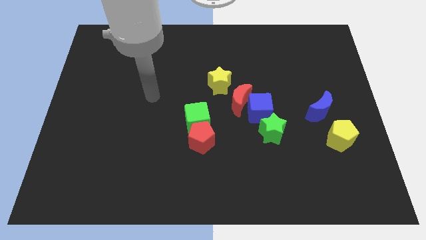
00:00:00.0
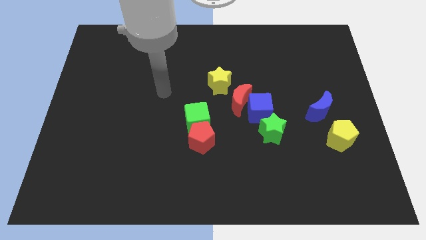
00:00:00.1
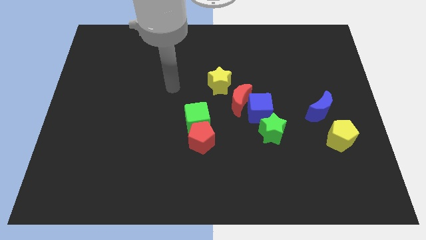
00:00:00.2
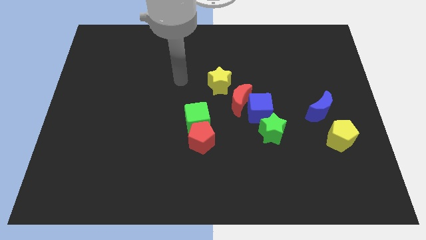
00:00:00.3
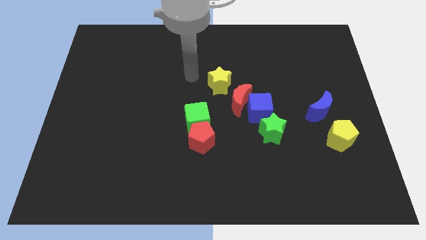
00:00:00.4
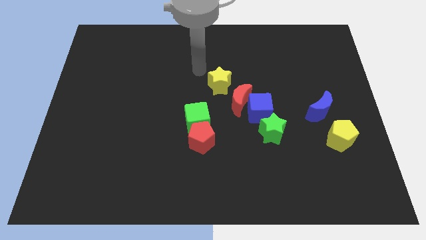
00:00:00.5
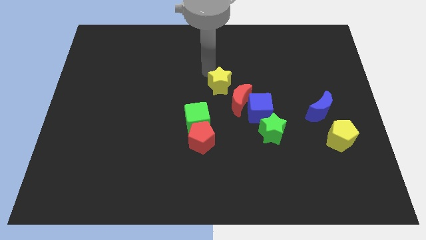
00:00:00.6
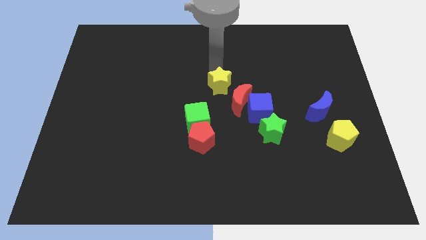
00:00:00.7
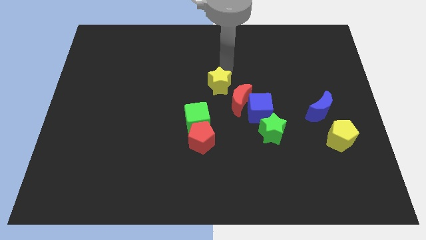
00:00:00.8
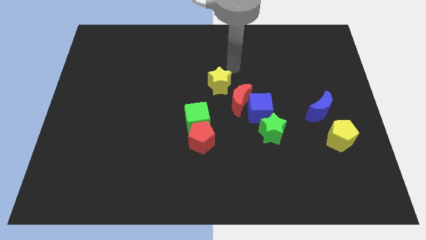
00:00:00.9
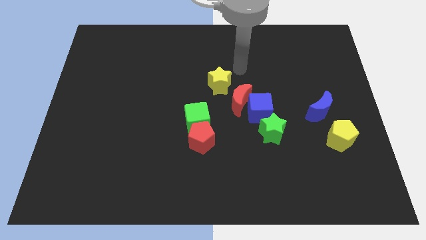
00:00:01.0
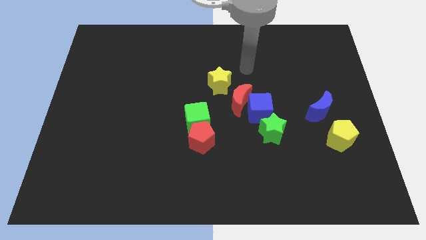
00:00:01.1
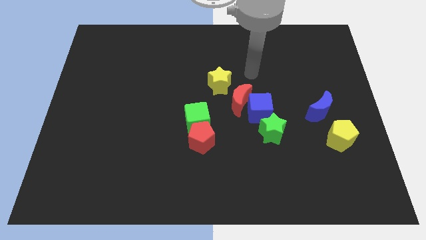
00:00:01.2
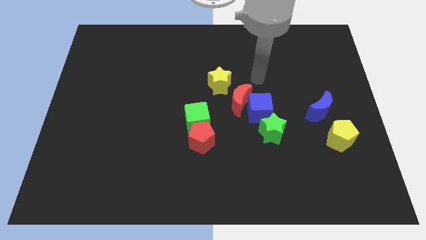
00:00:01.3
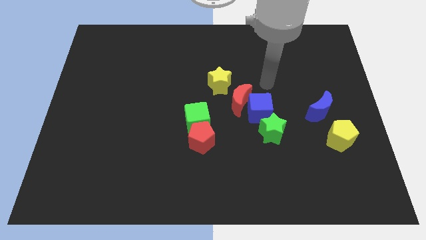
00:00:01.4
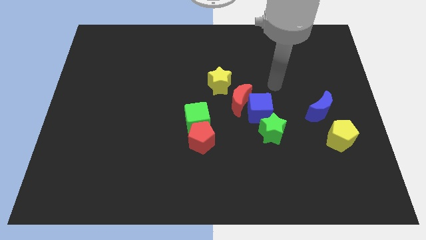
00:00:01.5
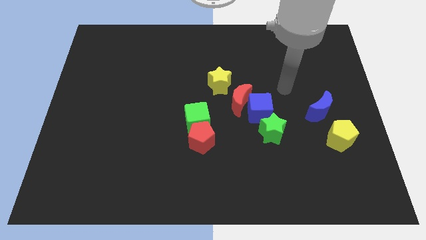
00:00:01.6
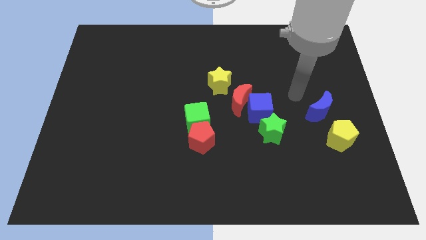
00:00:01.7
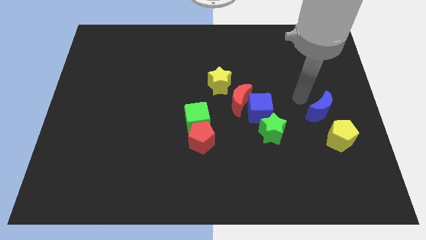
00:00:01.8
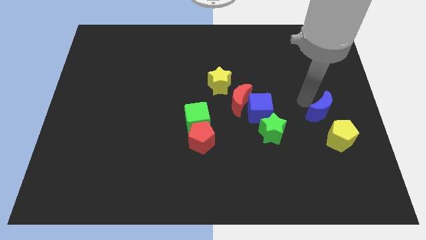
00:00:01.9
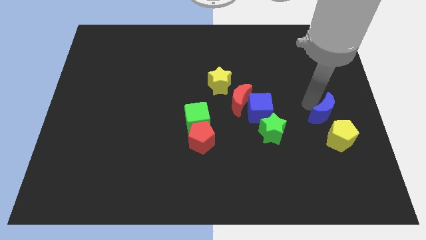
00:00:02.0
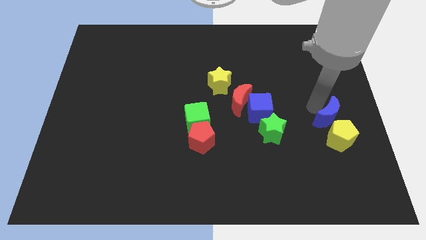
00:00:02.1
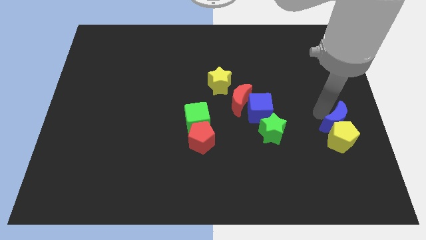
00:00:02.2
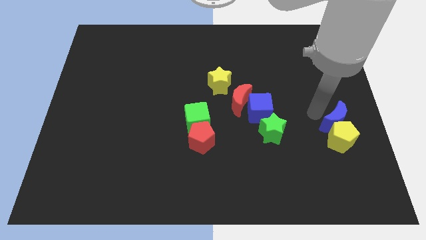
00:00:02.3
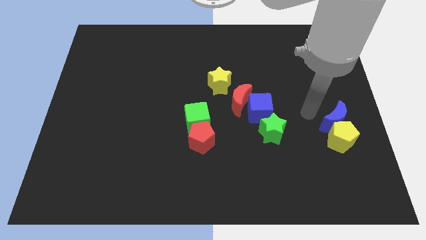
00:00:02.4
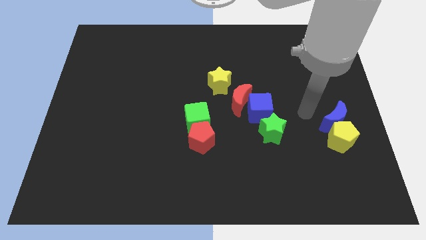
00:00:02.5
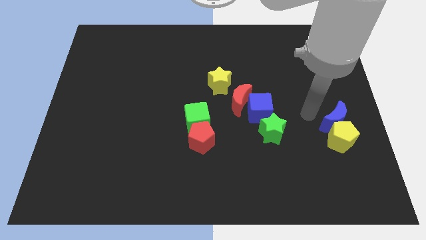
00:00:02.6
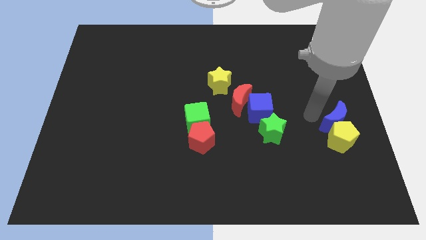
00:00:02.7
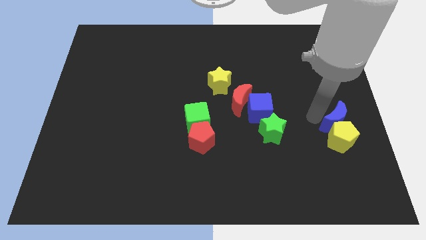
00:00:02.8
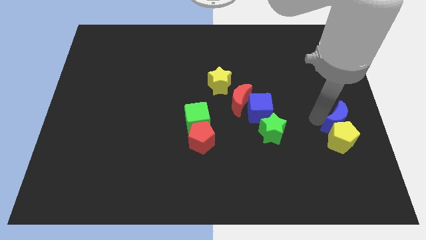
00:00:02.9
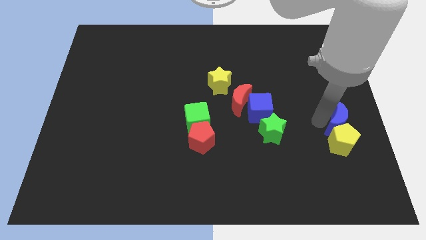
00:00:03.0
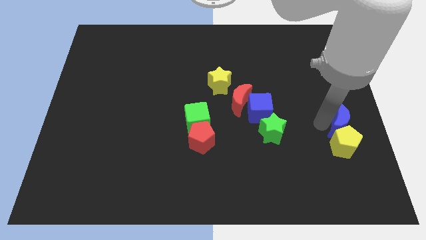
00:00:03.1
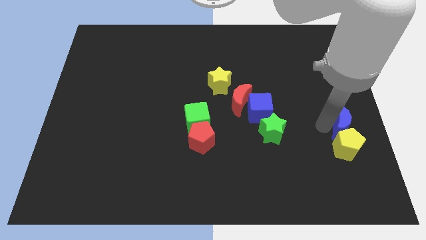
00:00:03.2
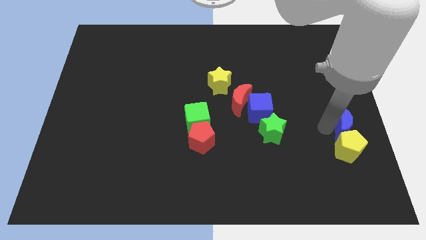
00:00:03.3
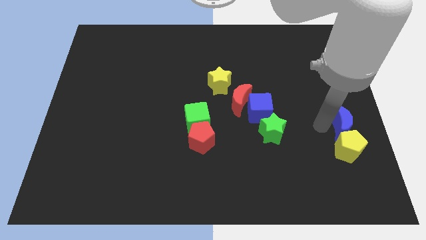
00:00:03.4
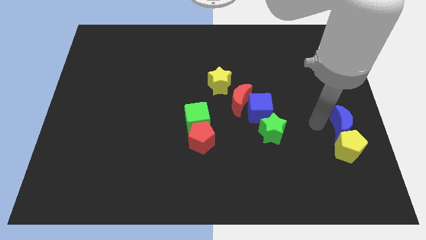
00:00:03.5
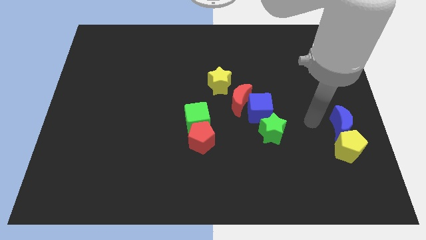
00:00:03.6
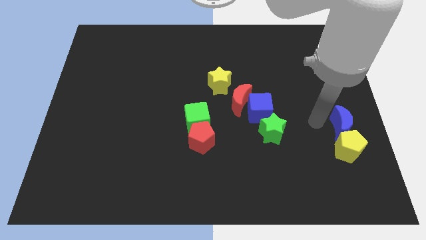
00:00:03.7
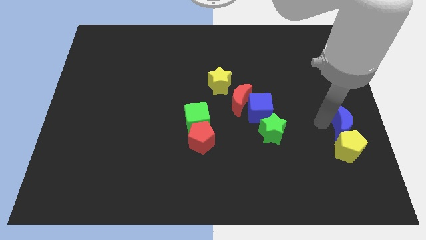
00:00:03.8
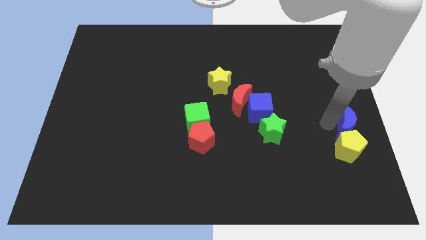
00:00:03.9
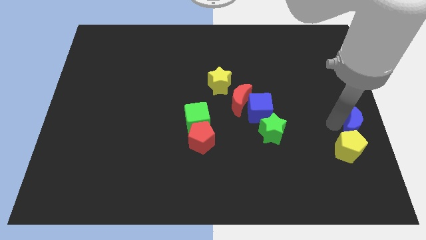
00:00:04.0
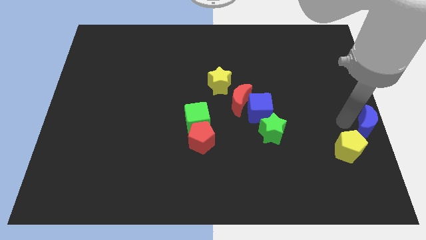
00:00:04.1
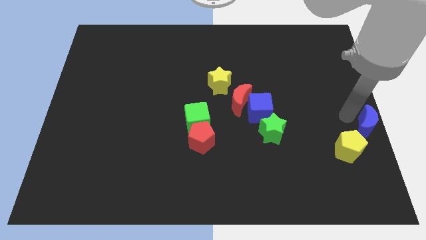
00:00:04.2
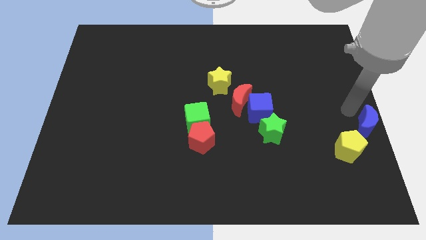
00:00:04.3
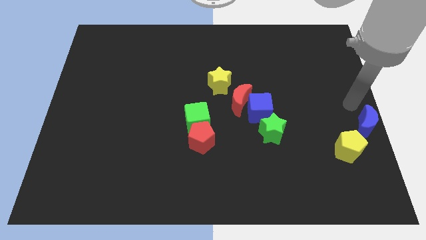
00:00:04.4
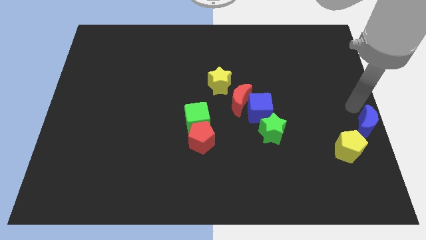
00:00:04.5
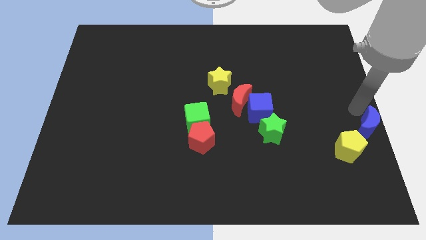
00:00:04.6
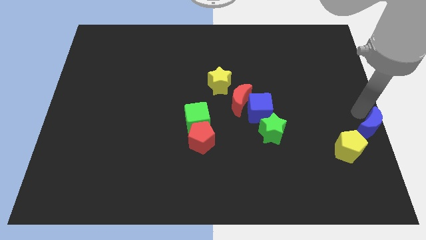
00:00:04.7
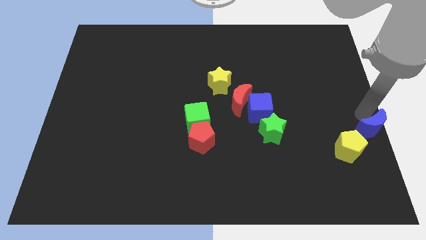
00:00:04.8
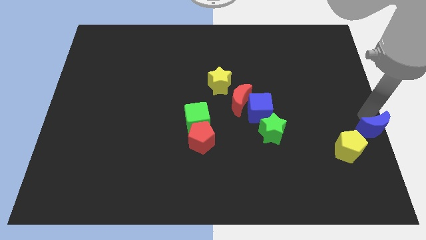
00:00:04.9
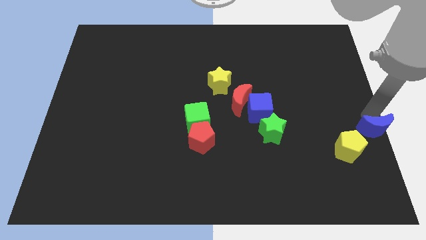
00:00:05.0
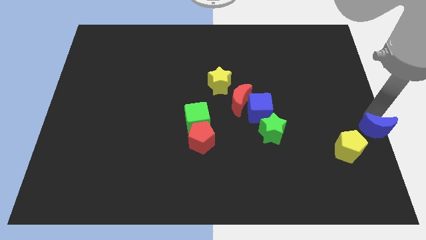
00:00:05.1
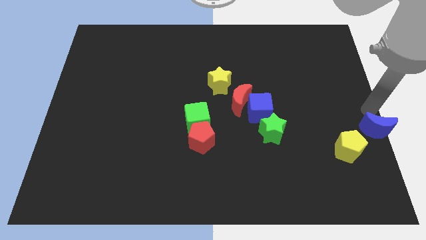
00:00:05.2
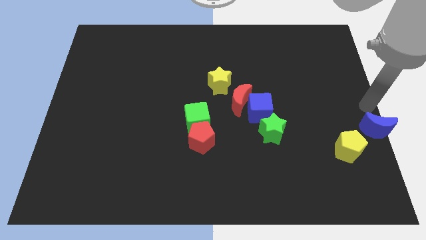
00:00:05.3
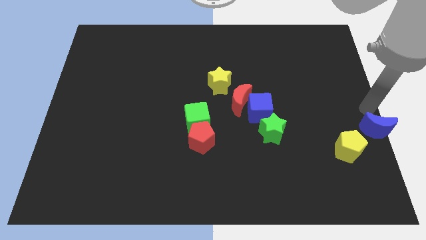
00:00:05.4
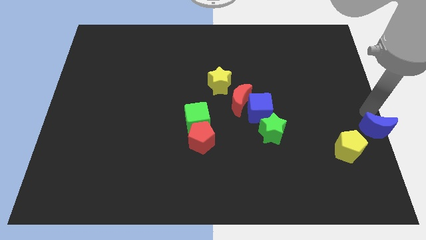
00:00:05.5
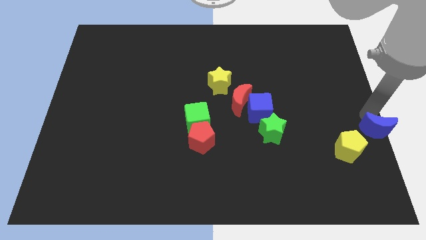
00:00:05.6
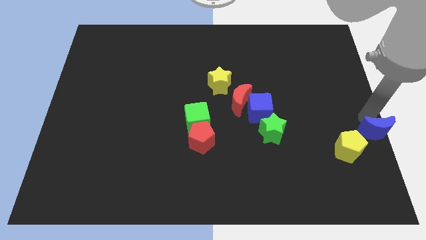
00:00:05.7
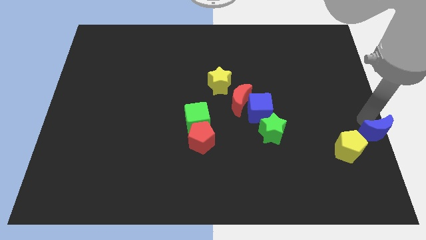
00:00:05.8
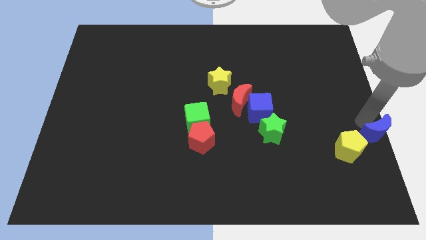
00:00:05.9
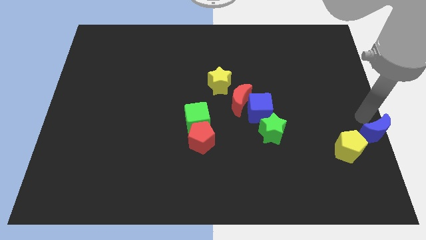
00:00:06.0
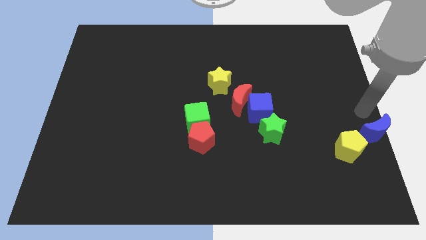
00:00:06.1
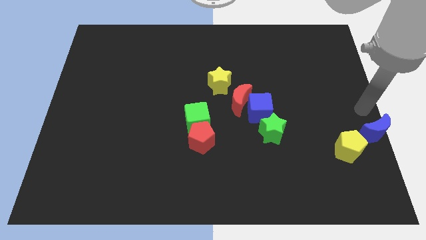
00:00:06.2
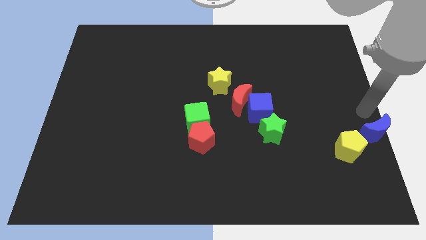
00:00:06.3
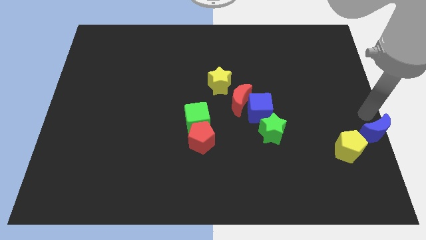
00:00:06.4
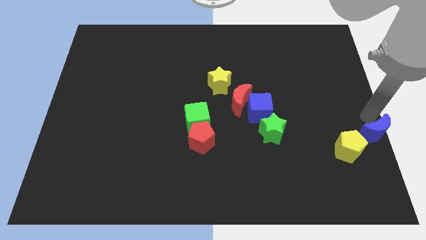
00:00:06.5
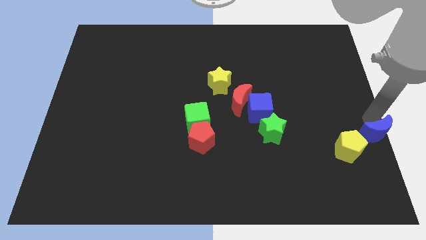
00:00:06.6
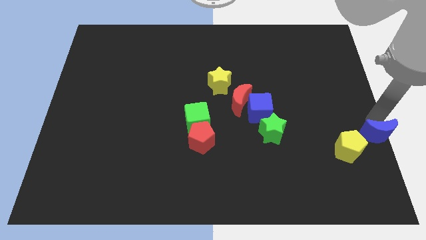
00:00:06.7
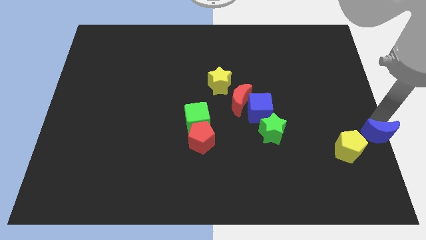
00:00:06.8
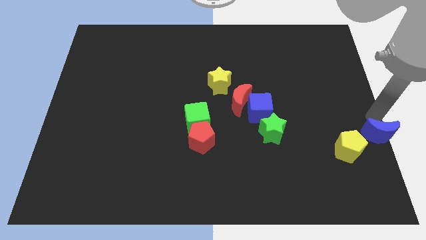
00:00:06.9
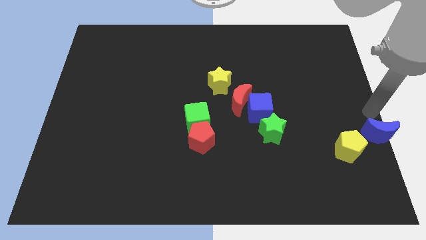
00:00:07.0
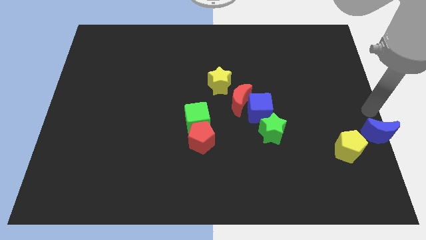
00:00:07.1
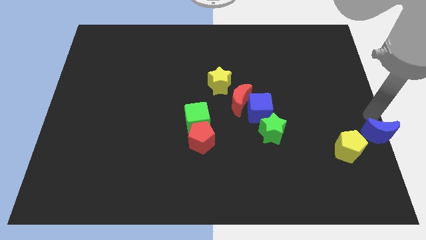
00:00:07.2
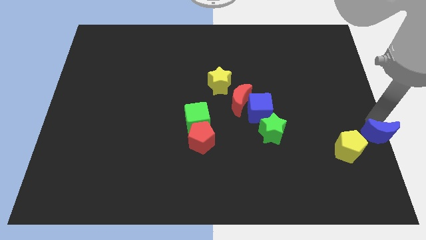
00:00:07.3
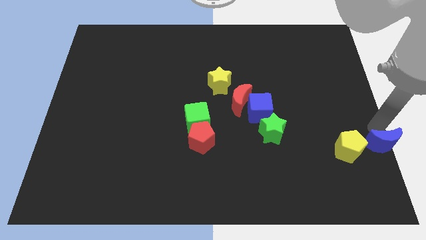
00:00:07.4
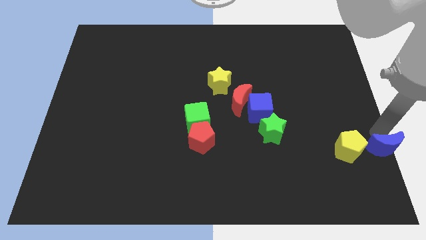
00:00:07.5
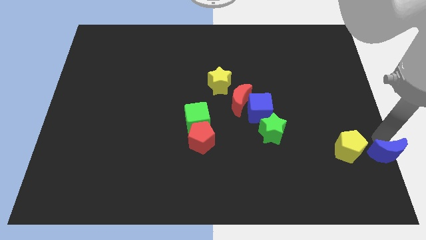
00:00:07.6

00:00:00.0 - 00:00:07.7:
slide the blue moon to the bottom right corner
